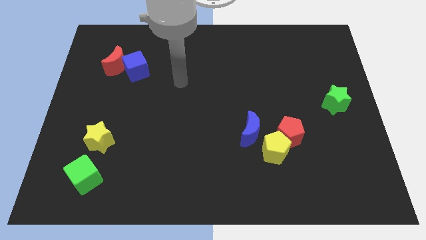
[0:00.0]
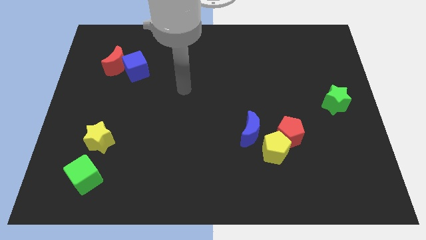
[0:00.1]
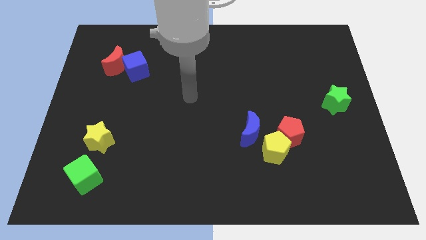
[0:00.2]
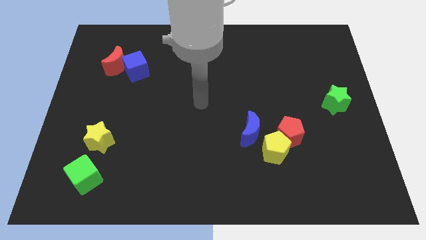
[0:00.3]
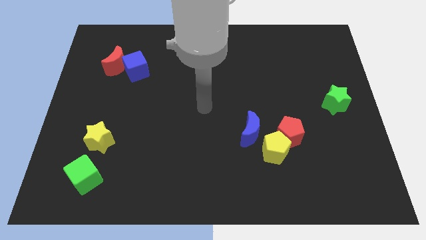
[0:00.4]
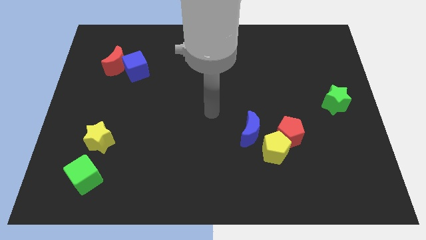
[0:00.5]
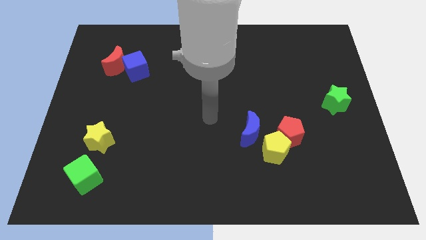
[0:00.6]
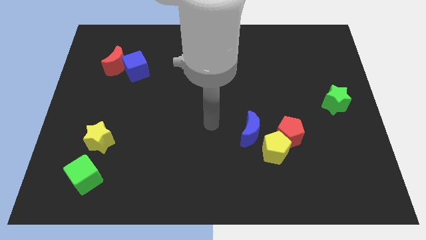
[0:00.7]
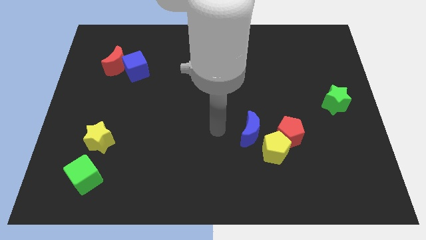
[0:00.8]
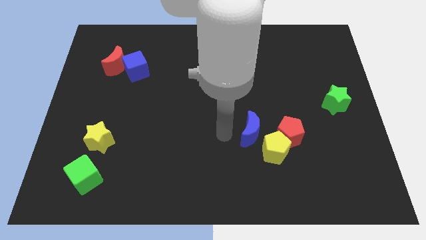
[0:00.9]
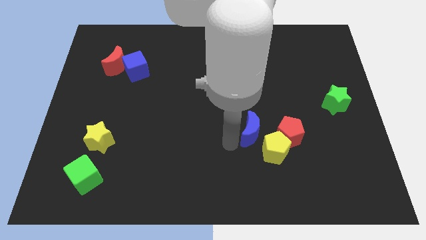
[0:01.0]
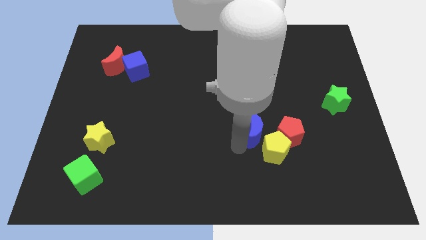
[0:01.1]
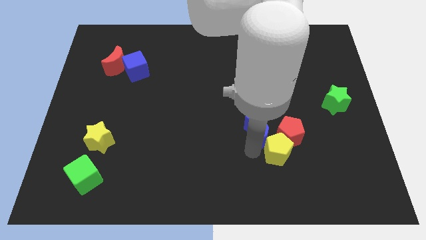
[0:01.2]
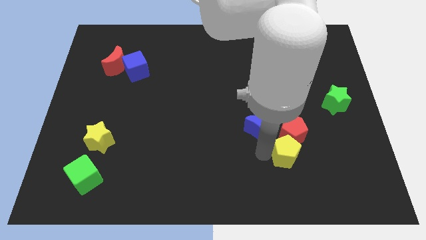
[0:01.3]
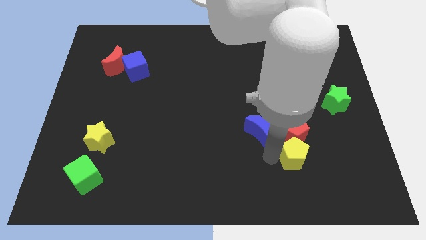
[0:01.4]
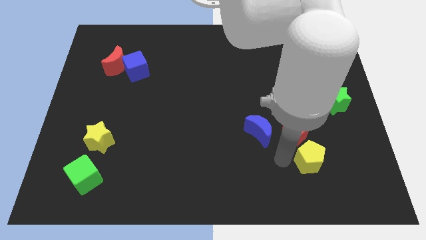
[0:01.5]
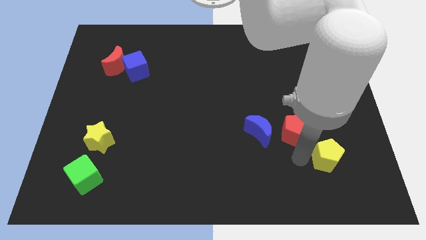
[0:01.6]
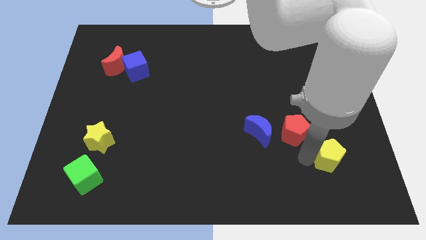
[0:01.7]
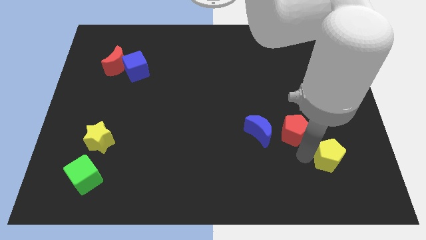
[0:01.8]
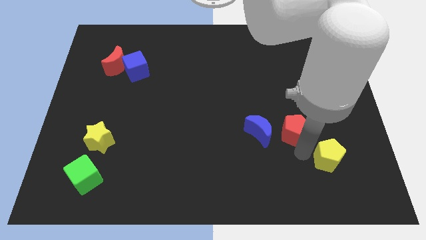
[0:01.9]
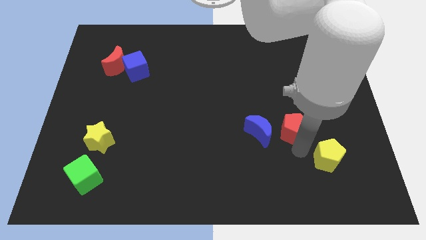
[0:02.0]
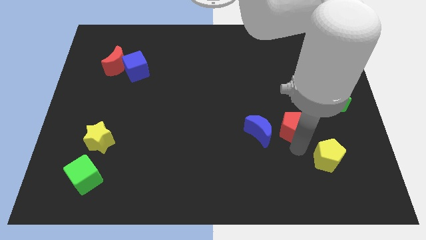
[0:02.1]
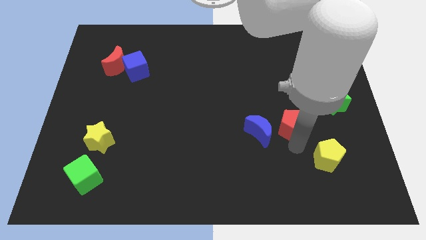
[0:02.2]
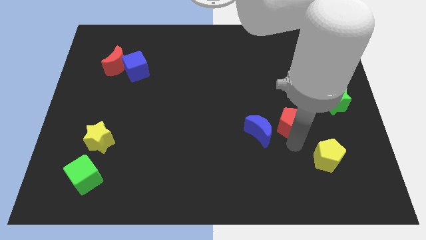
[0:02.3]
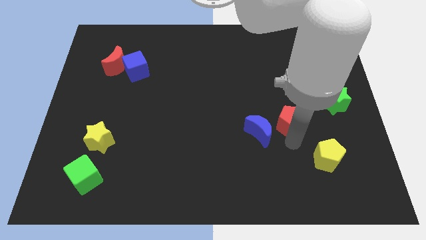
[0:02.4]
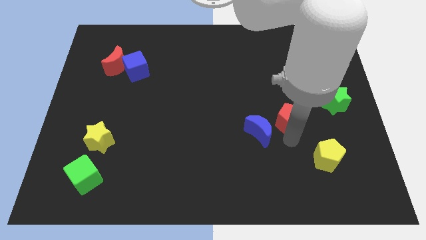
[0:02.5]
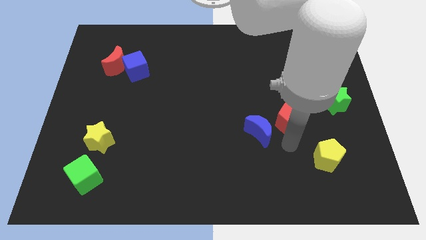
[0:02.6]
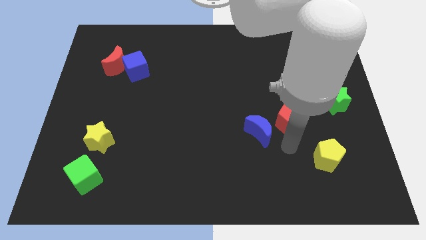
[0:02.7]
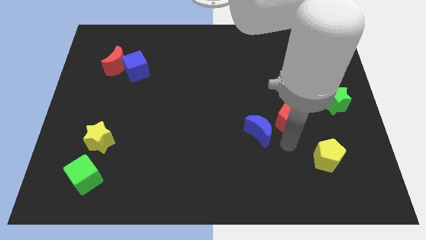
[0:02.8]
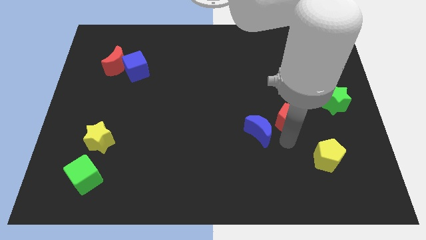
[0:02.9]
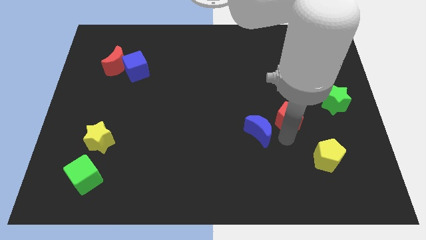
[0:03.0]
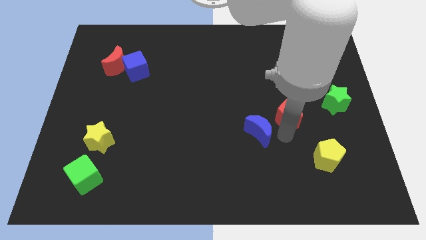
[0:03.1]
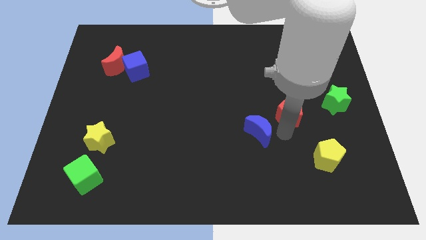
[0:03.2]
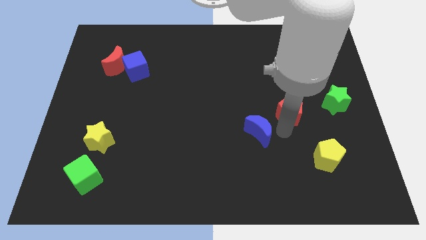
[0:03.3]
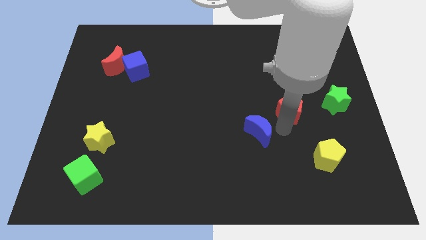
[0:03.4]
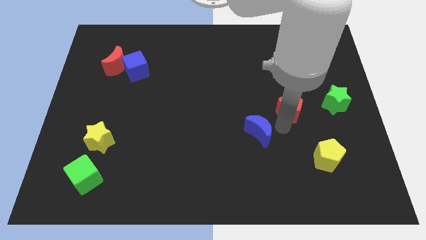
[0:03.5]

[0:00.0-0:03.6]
slightly push the red pentagon upwards

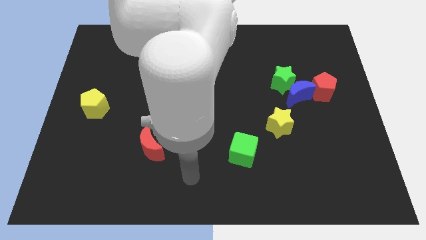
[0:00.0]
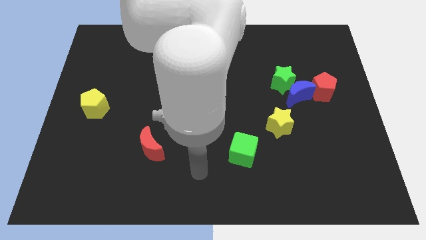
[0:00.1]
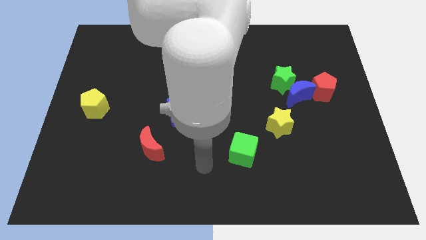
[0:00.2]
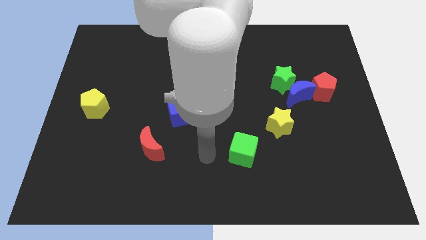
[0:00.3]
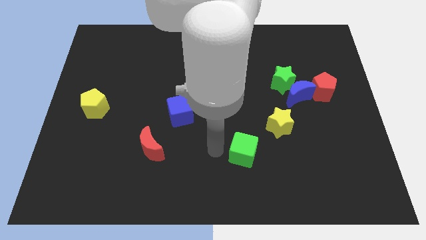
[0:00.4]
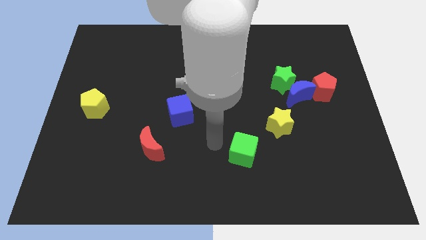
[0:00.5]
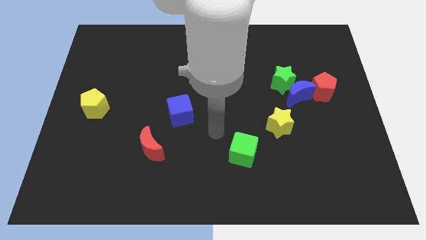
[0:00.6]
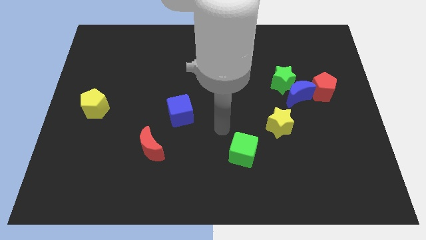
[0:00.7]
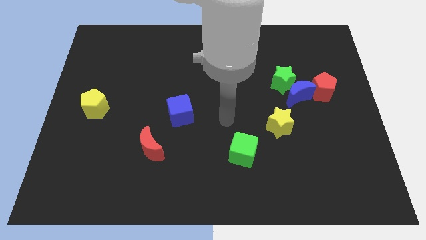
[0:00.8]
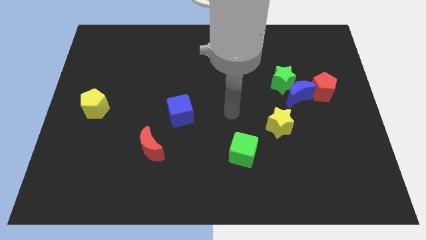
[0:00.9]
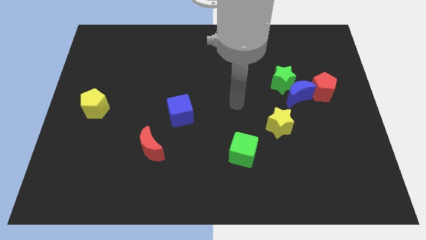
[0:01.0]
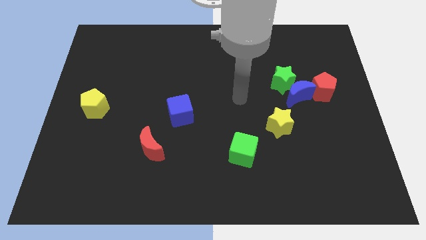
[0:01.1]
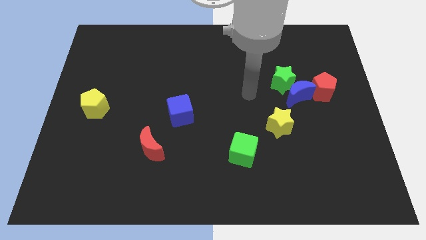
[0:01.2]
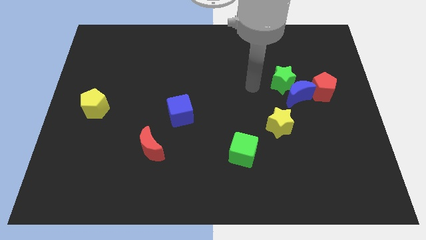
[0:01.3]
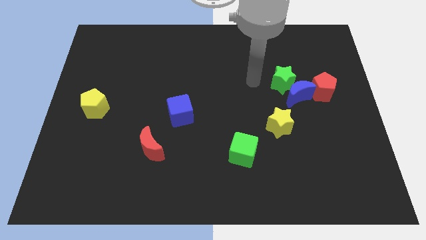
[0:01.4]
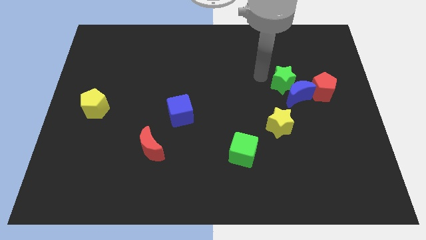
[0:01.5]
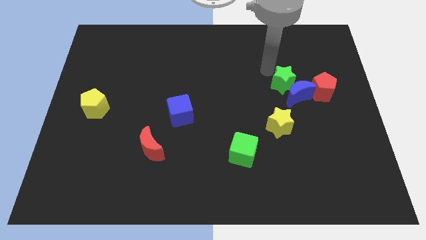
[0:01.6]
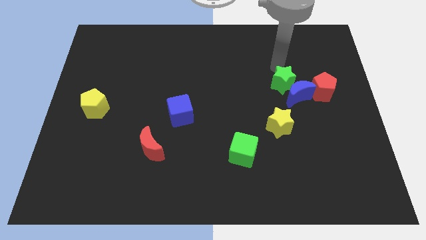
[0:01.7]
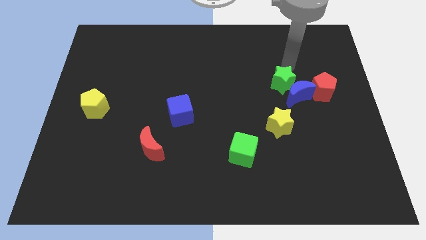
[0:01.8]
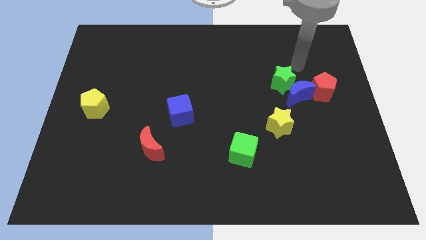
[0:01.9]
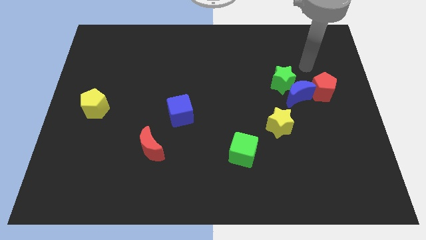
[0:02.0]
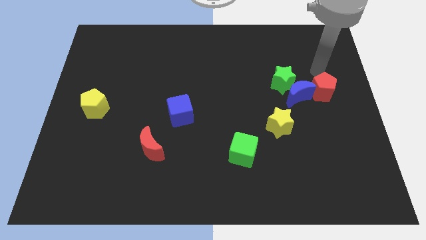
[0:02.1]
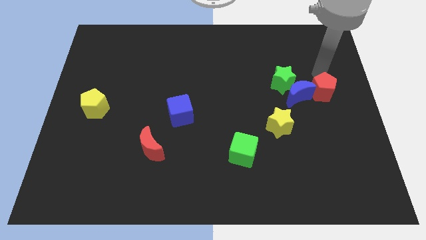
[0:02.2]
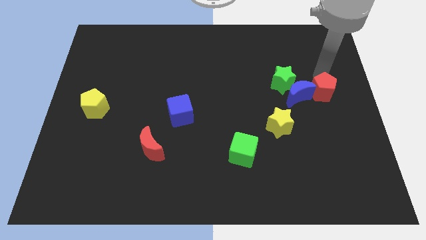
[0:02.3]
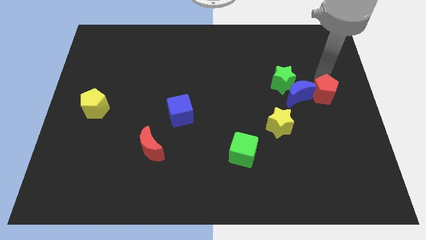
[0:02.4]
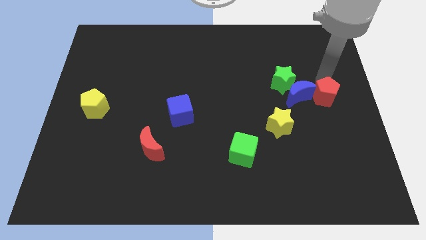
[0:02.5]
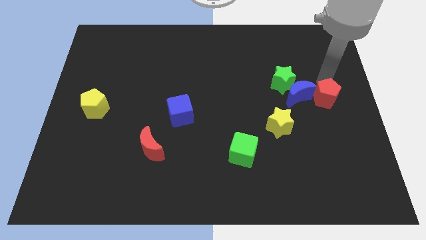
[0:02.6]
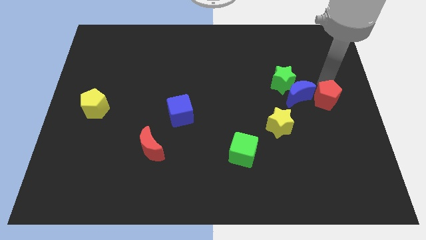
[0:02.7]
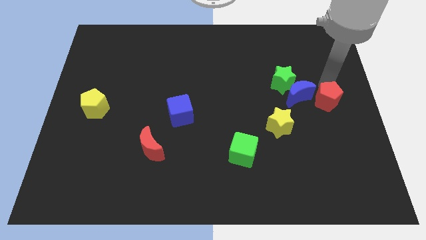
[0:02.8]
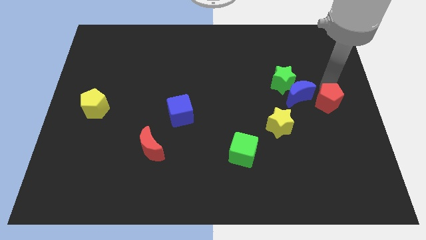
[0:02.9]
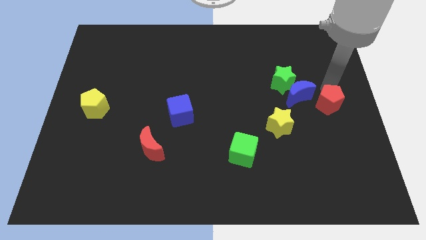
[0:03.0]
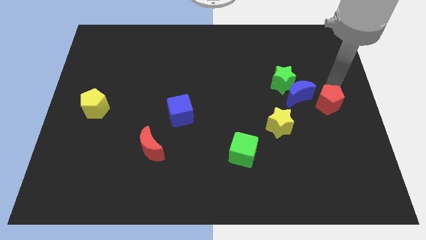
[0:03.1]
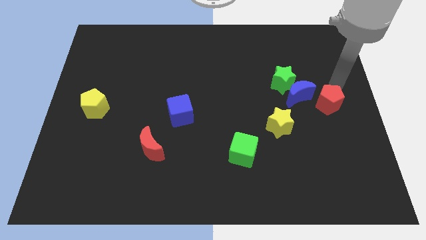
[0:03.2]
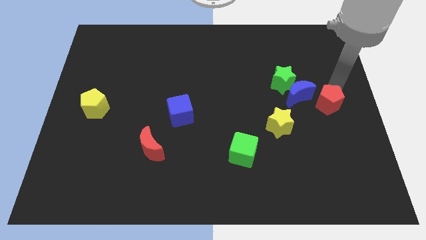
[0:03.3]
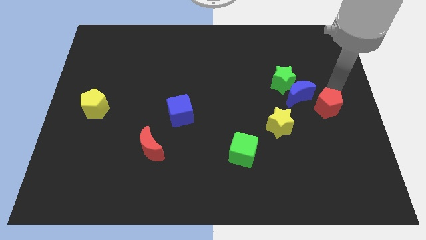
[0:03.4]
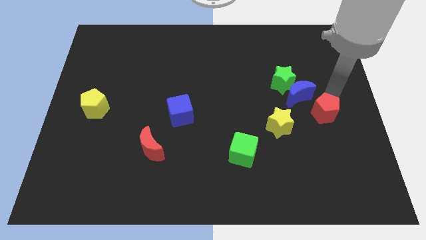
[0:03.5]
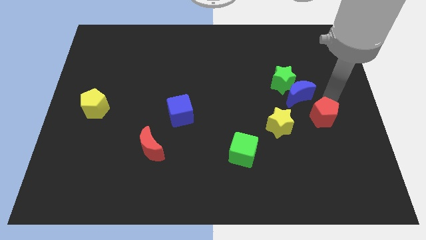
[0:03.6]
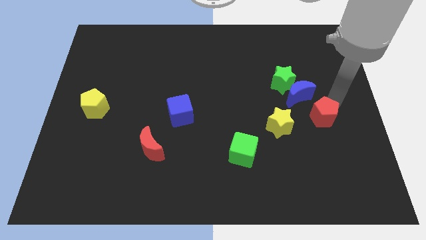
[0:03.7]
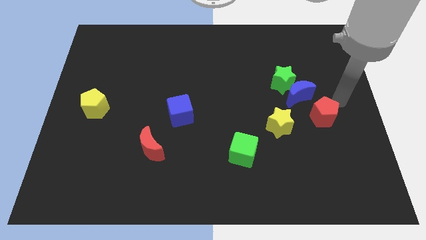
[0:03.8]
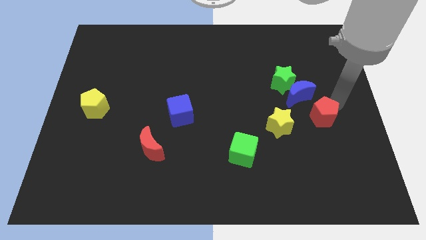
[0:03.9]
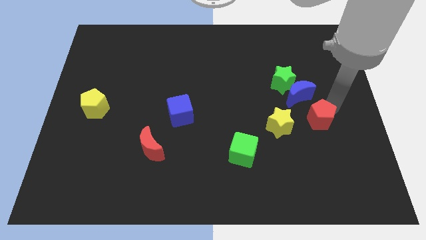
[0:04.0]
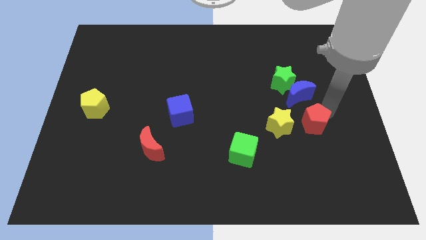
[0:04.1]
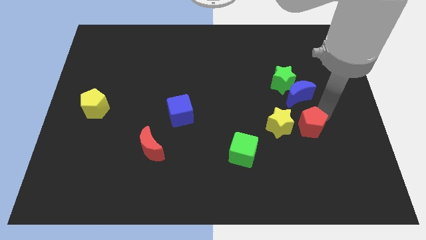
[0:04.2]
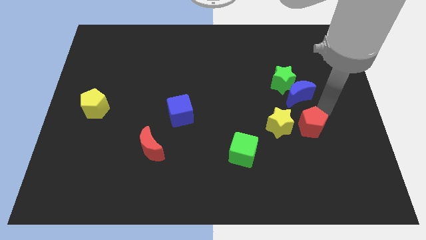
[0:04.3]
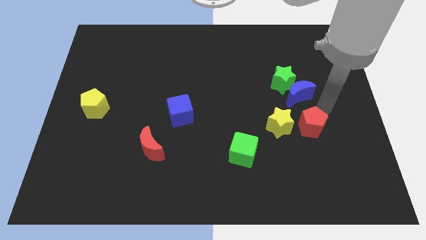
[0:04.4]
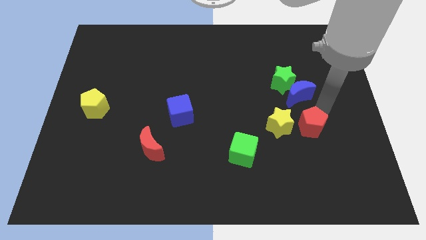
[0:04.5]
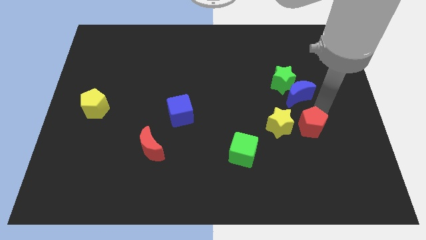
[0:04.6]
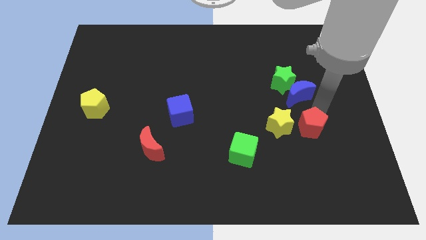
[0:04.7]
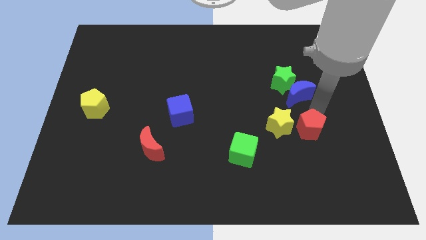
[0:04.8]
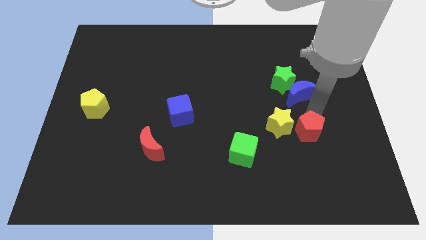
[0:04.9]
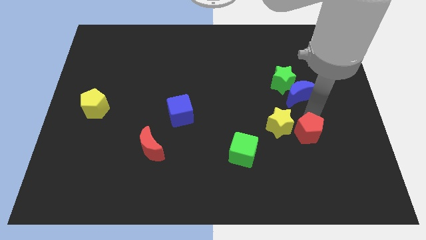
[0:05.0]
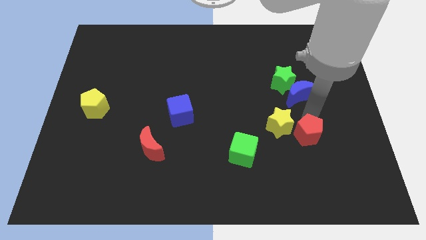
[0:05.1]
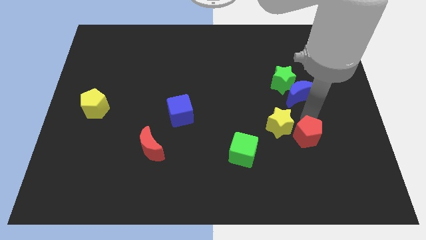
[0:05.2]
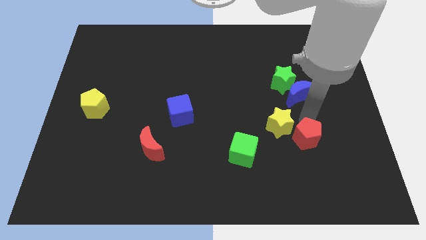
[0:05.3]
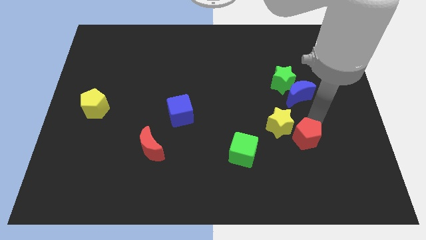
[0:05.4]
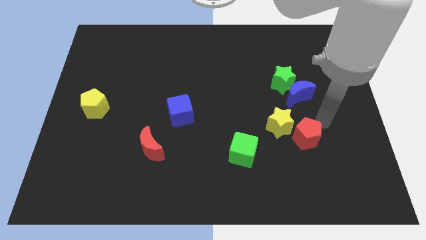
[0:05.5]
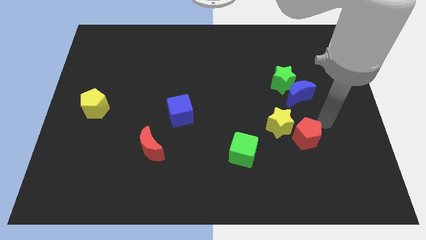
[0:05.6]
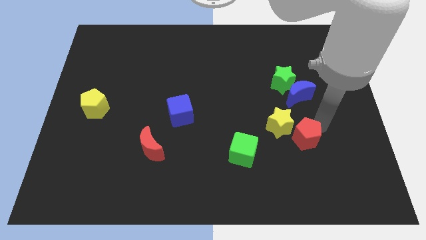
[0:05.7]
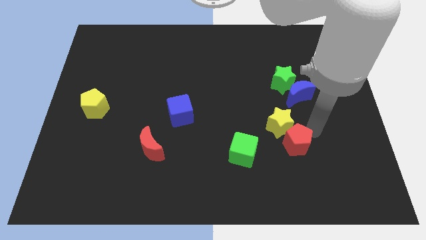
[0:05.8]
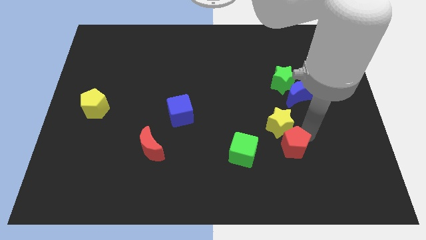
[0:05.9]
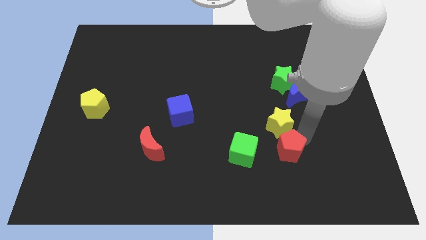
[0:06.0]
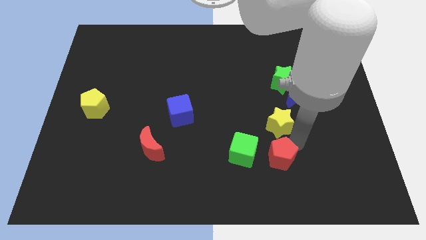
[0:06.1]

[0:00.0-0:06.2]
slide the red pentagon down and to the left diagonally
